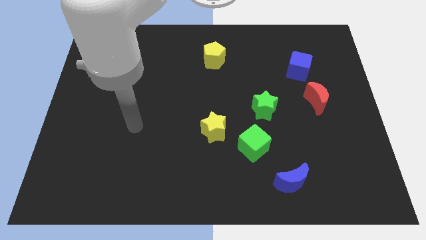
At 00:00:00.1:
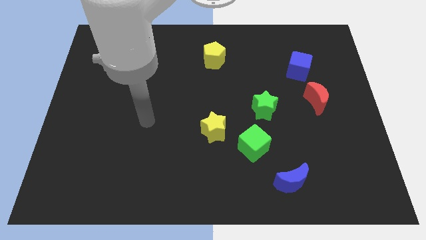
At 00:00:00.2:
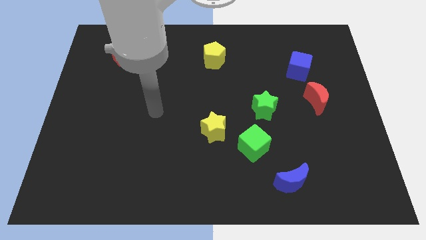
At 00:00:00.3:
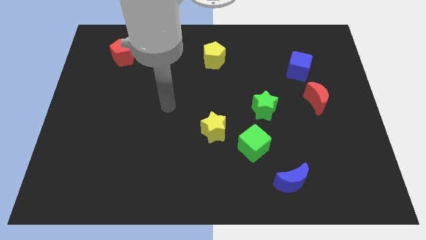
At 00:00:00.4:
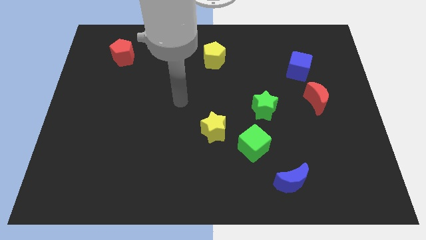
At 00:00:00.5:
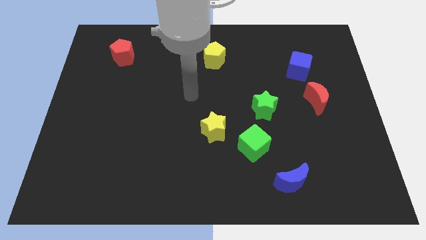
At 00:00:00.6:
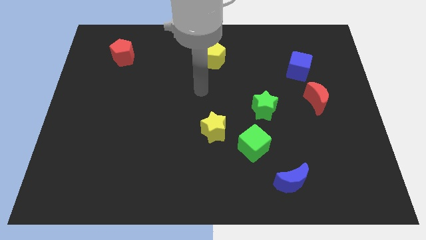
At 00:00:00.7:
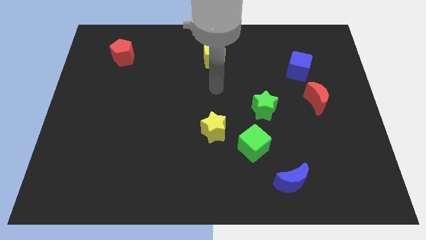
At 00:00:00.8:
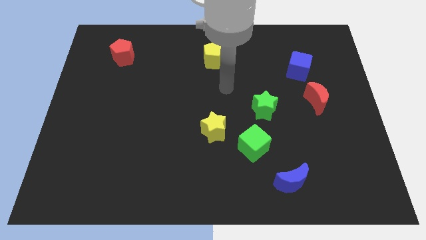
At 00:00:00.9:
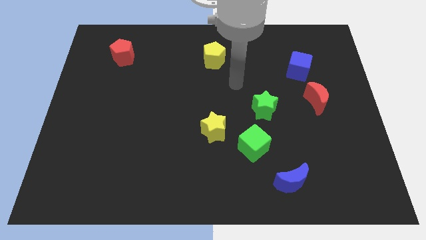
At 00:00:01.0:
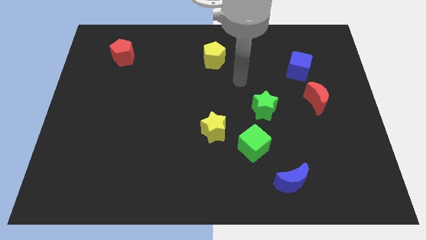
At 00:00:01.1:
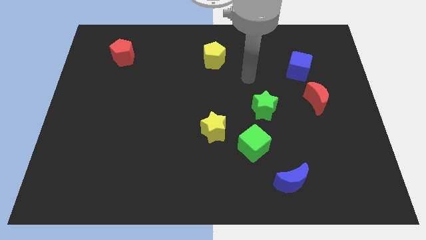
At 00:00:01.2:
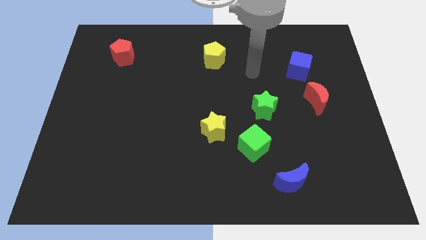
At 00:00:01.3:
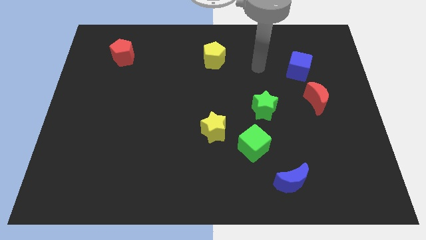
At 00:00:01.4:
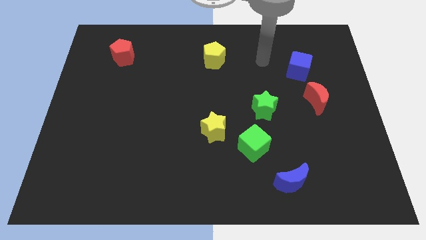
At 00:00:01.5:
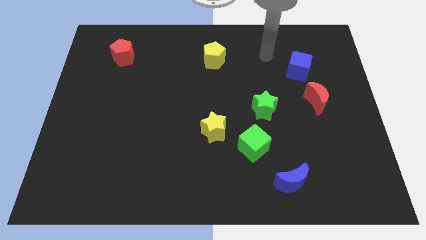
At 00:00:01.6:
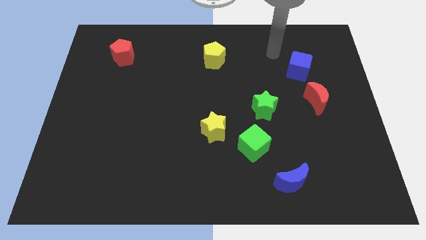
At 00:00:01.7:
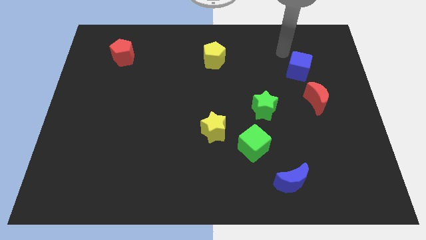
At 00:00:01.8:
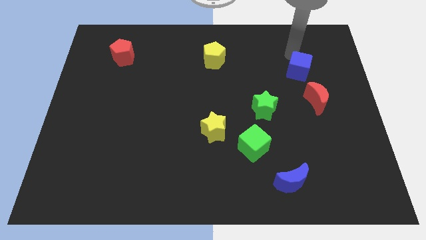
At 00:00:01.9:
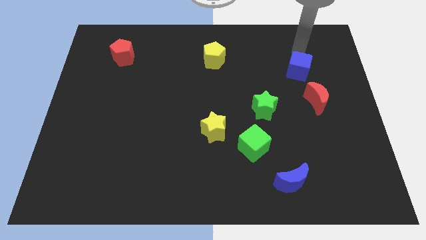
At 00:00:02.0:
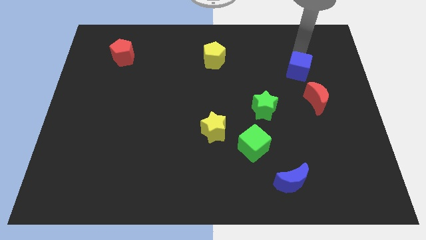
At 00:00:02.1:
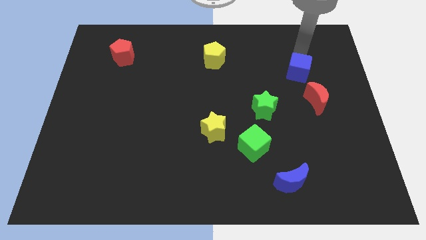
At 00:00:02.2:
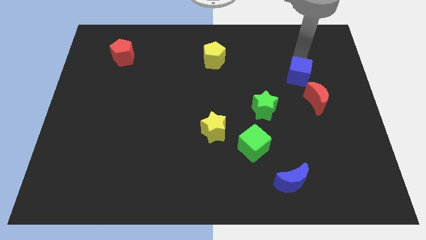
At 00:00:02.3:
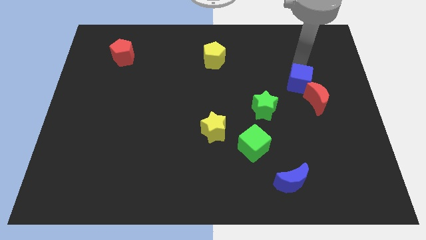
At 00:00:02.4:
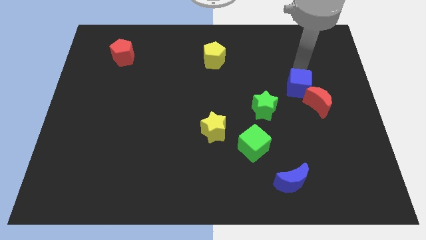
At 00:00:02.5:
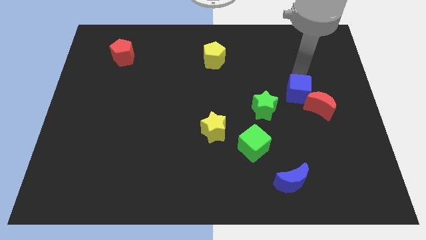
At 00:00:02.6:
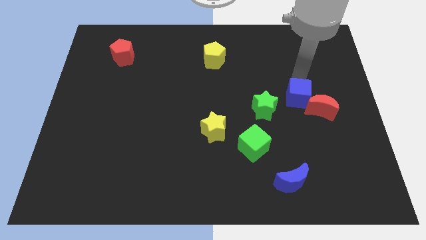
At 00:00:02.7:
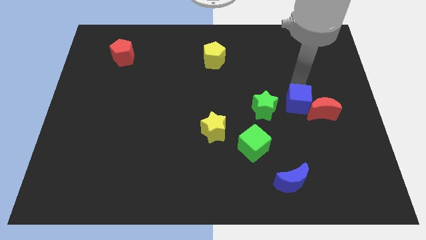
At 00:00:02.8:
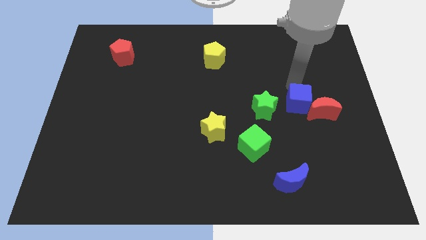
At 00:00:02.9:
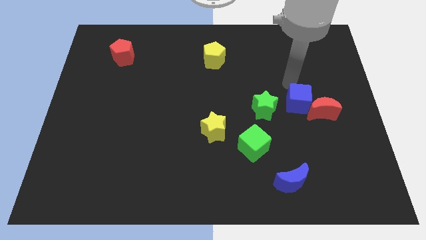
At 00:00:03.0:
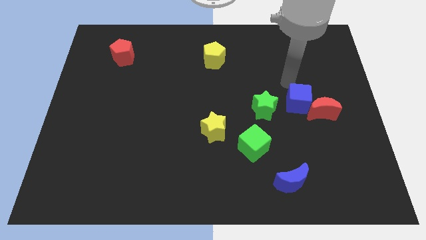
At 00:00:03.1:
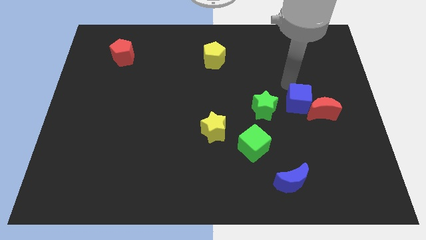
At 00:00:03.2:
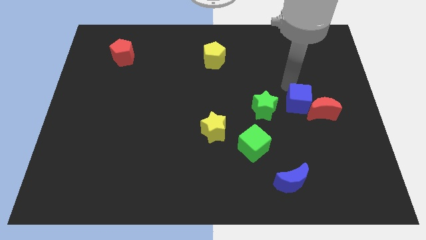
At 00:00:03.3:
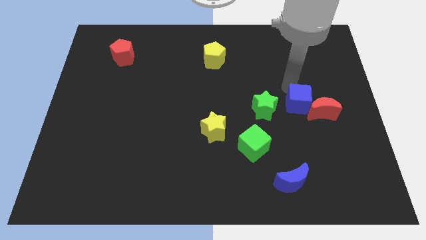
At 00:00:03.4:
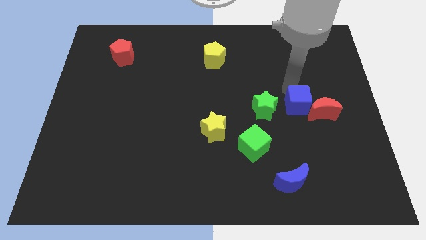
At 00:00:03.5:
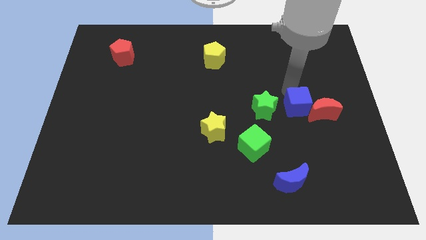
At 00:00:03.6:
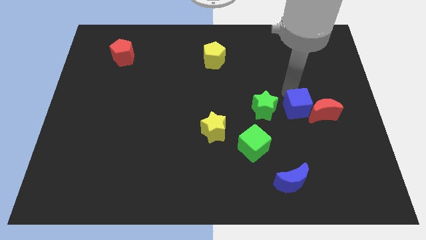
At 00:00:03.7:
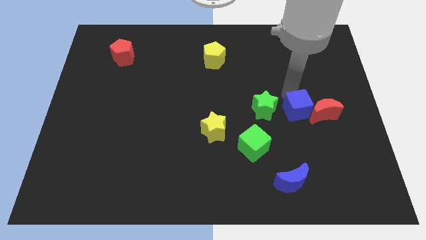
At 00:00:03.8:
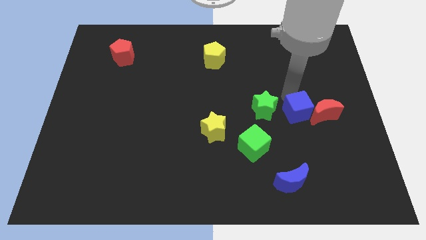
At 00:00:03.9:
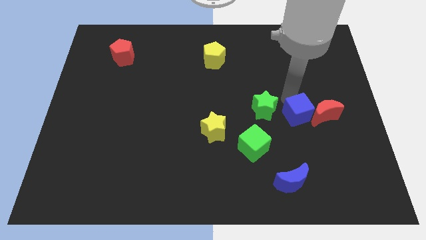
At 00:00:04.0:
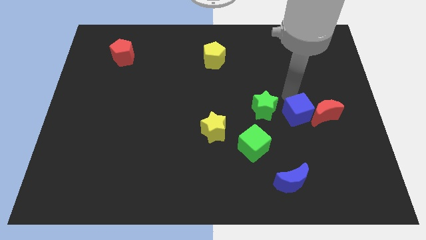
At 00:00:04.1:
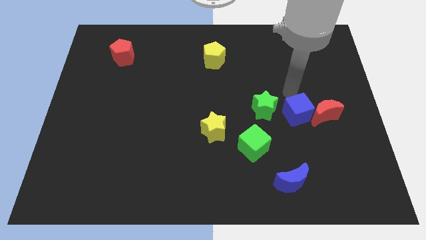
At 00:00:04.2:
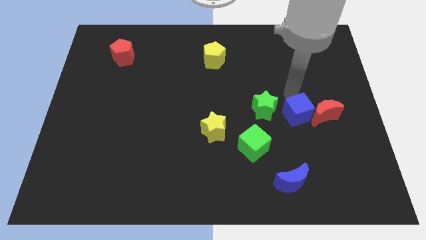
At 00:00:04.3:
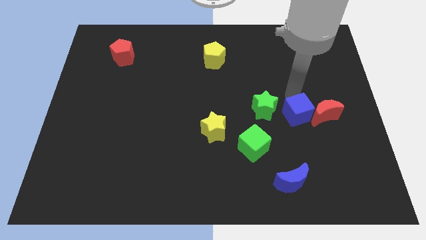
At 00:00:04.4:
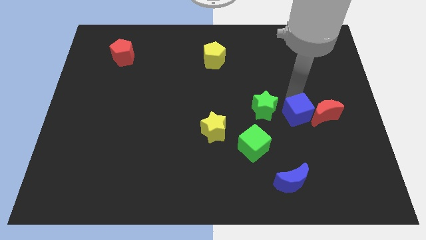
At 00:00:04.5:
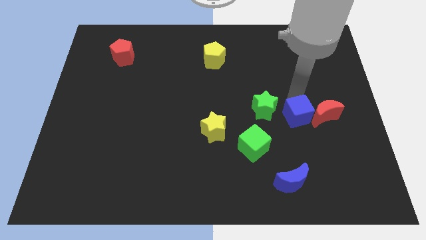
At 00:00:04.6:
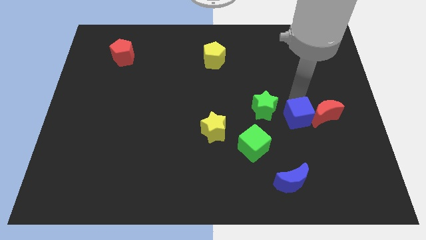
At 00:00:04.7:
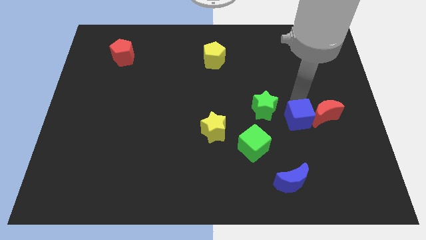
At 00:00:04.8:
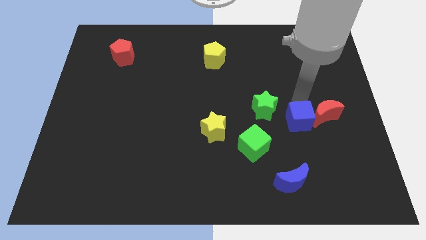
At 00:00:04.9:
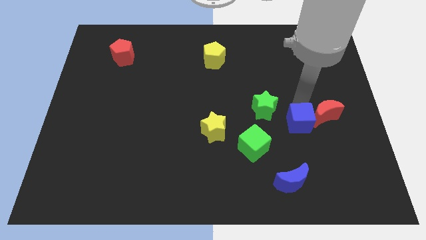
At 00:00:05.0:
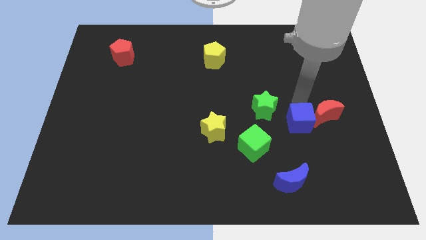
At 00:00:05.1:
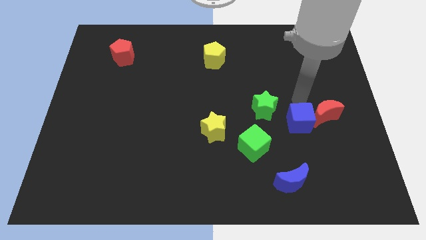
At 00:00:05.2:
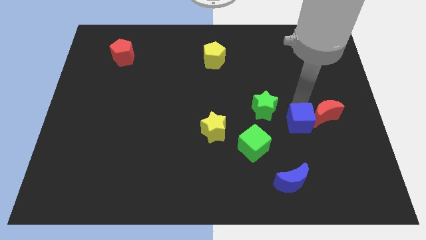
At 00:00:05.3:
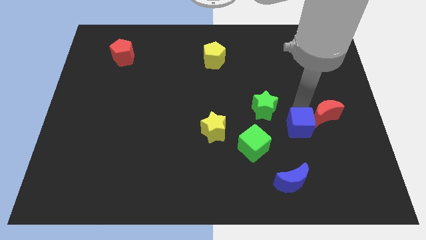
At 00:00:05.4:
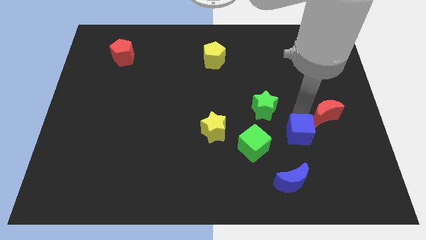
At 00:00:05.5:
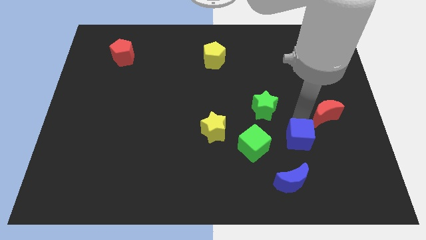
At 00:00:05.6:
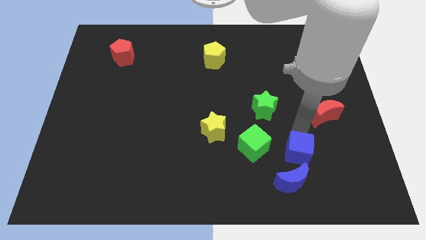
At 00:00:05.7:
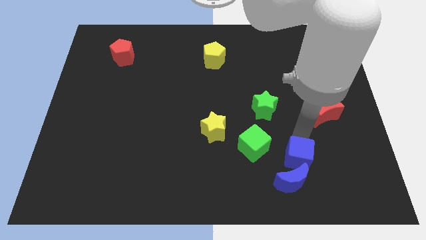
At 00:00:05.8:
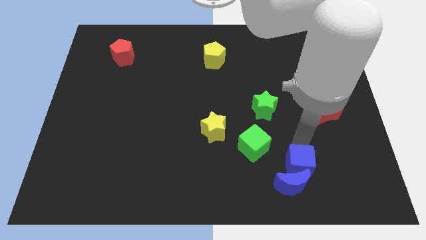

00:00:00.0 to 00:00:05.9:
move the blue cube towards the blue moon

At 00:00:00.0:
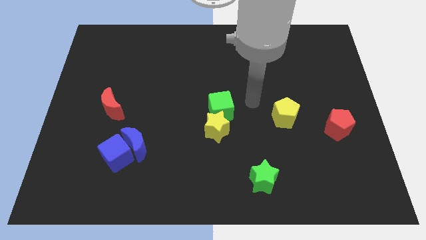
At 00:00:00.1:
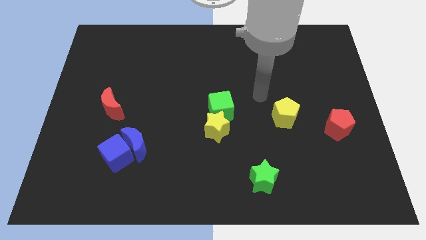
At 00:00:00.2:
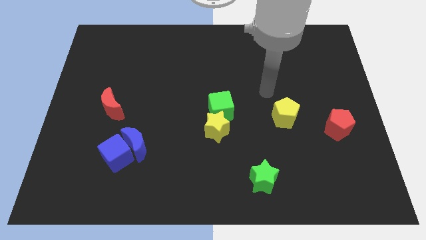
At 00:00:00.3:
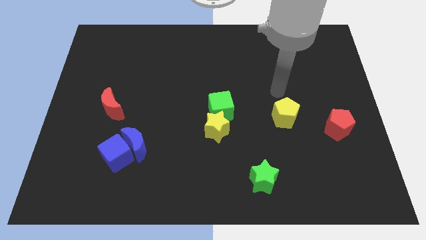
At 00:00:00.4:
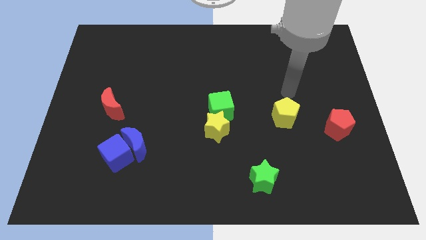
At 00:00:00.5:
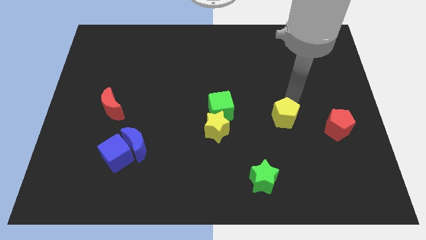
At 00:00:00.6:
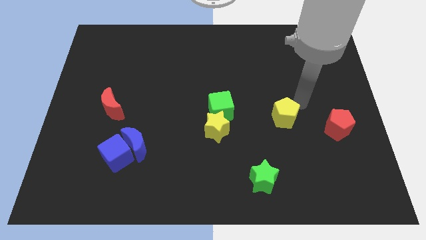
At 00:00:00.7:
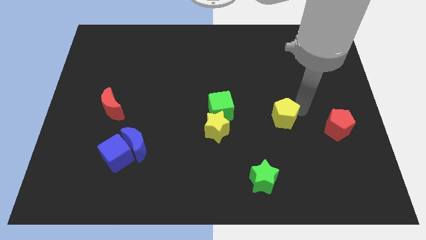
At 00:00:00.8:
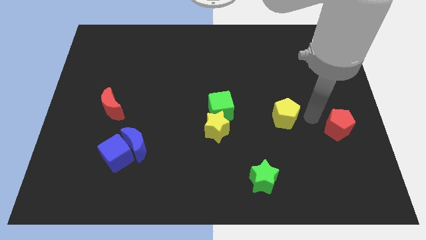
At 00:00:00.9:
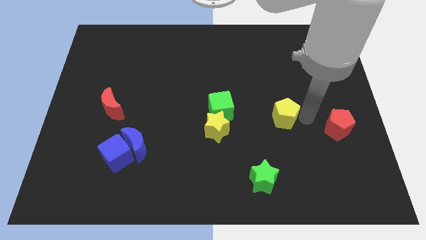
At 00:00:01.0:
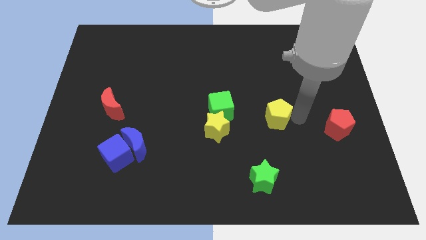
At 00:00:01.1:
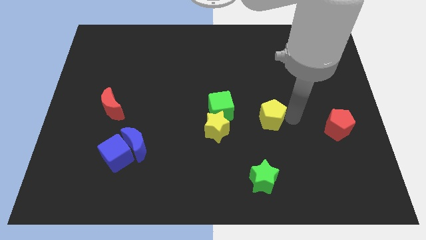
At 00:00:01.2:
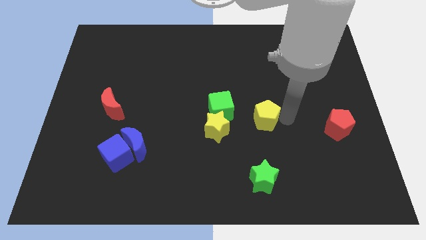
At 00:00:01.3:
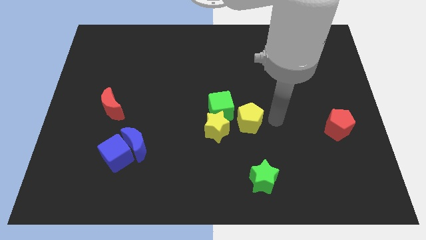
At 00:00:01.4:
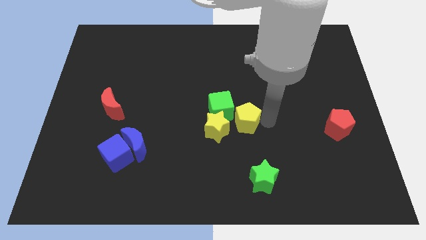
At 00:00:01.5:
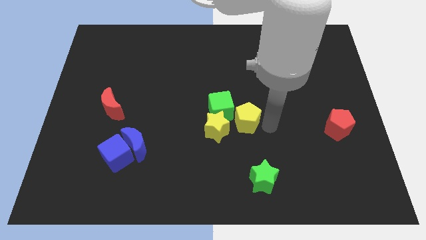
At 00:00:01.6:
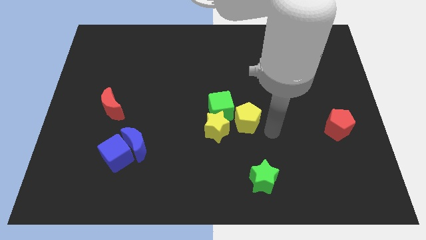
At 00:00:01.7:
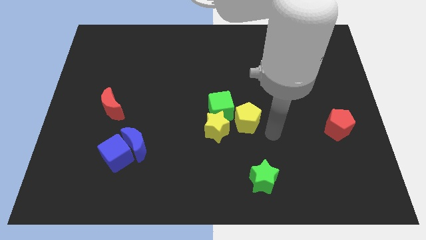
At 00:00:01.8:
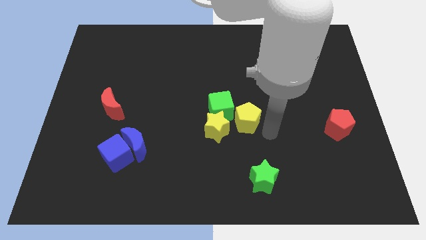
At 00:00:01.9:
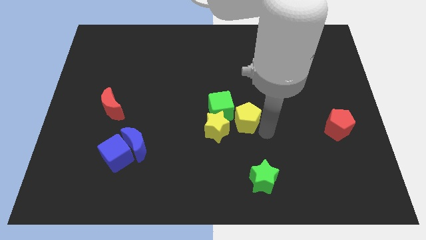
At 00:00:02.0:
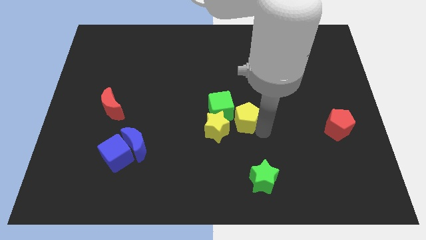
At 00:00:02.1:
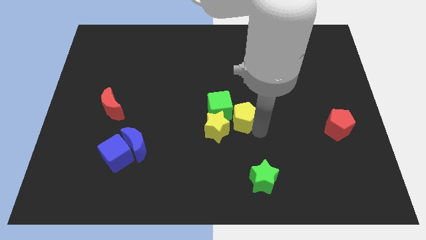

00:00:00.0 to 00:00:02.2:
put the yellow pentagon close to the green cube
